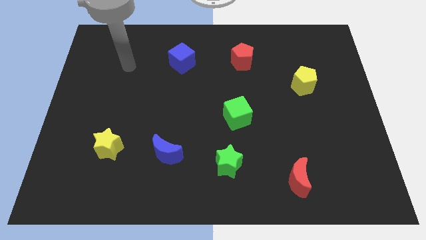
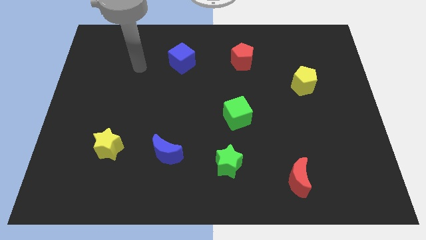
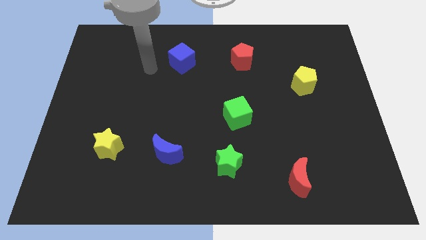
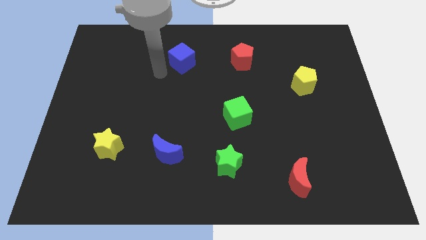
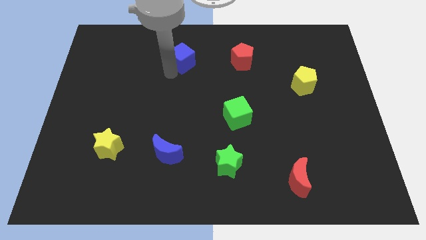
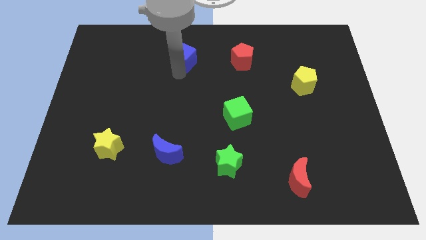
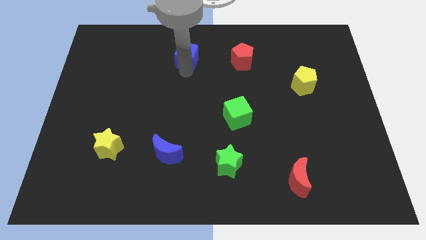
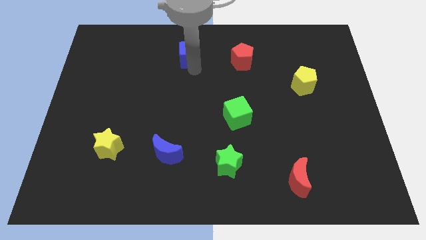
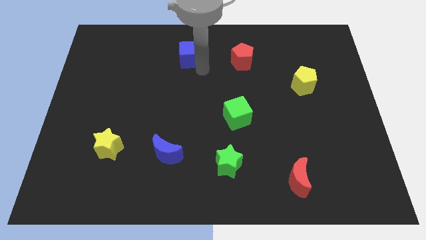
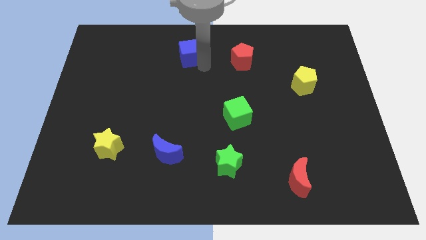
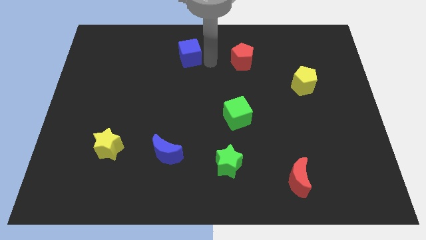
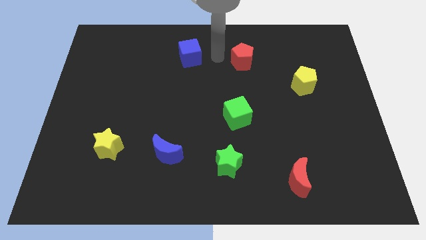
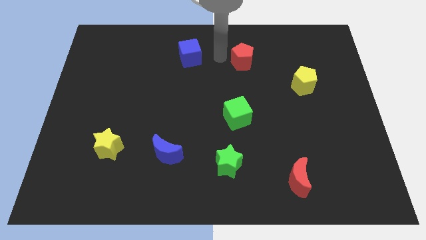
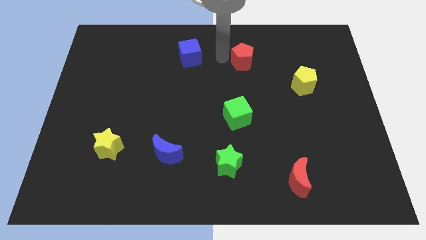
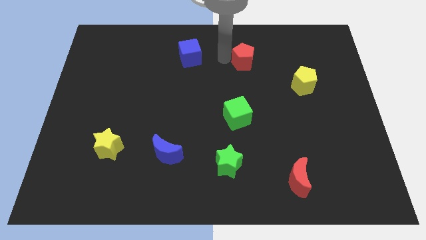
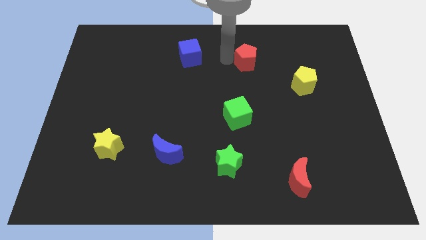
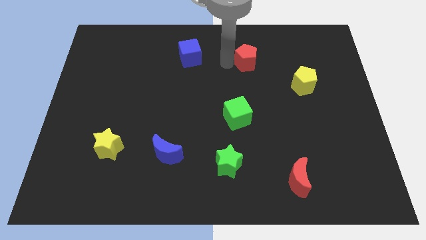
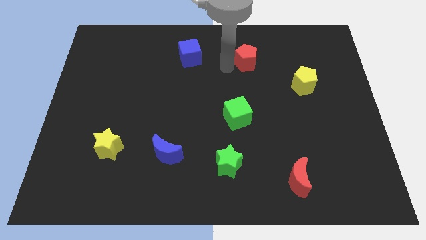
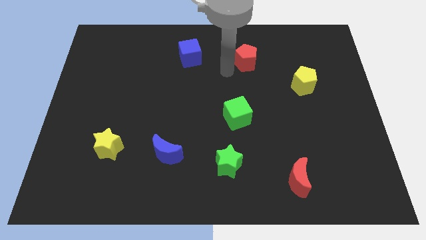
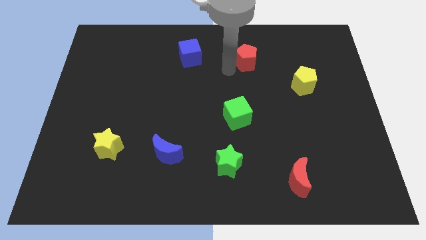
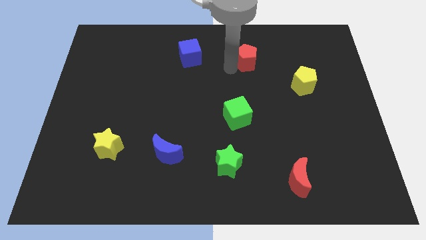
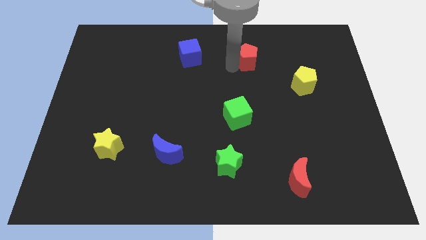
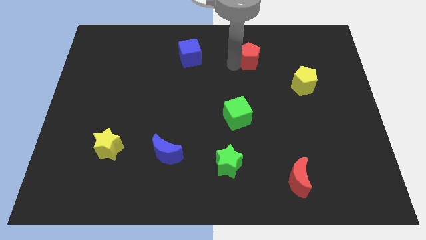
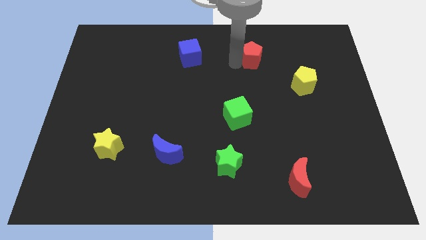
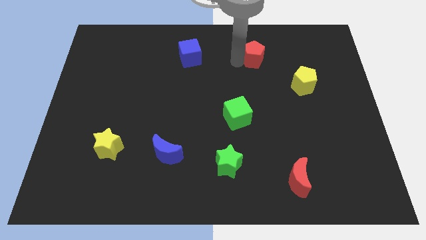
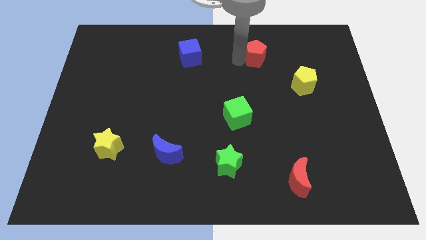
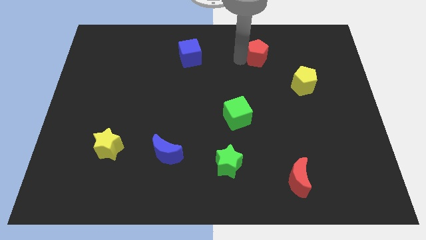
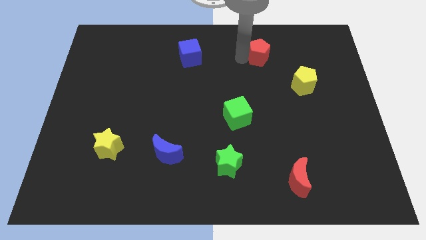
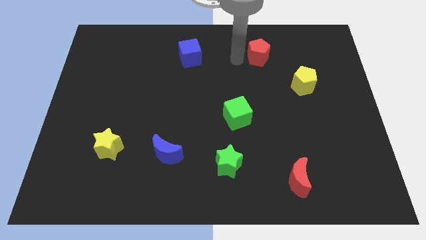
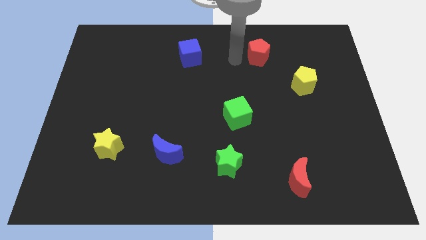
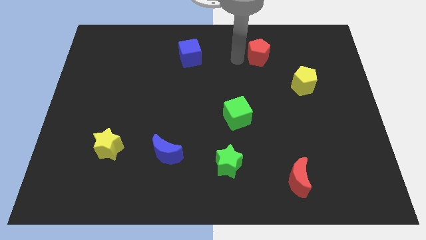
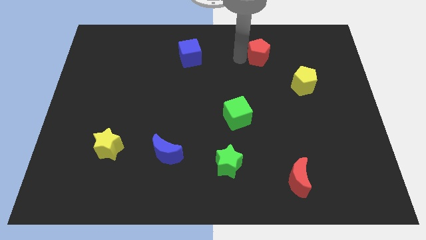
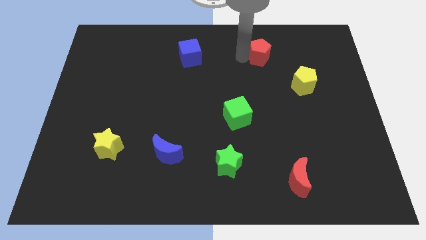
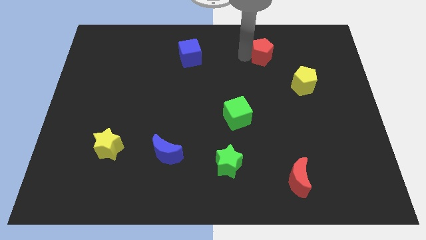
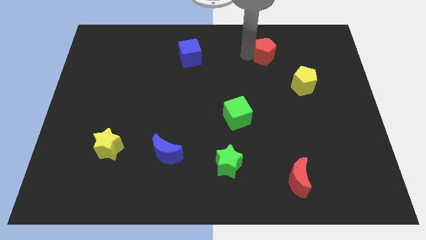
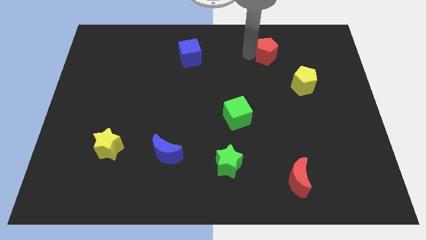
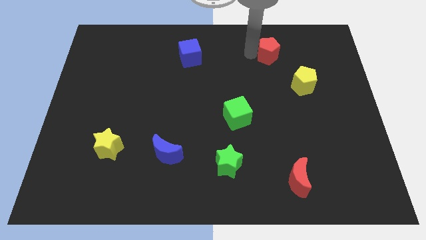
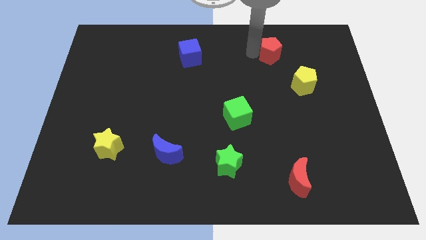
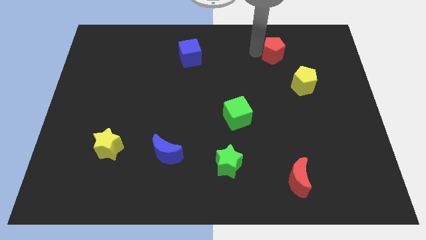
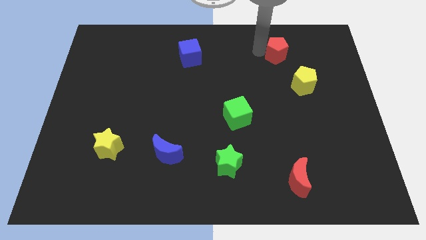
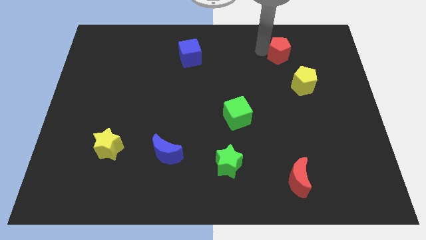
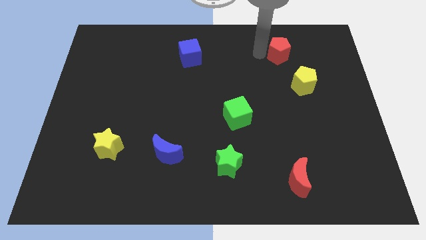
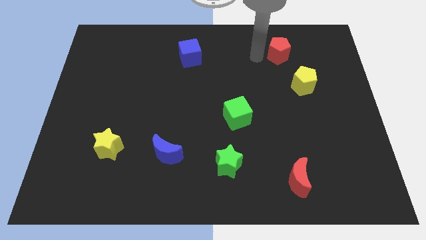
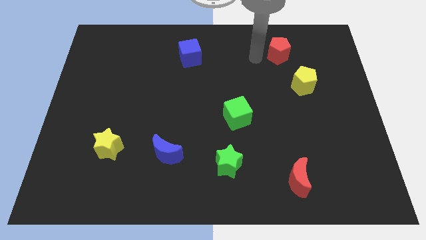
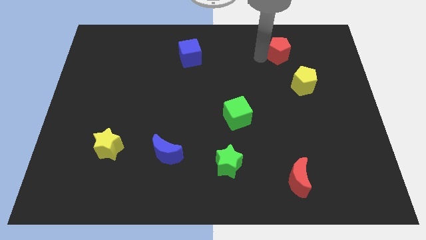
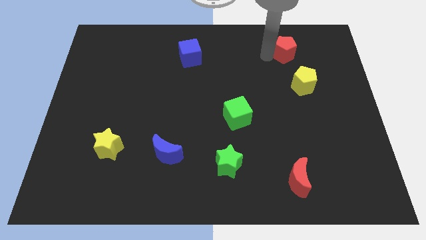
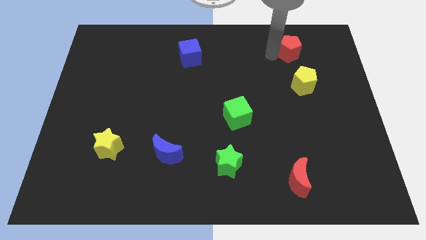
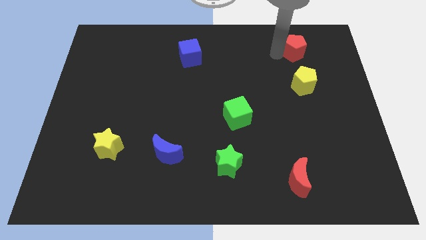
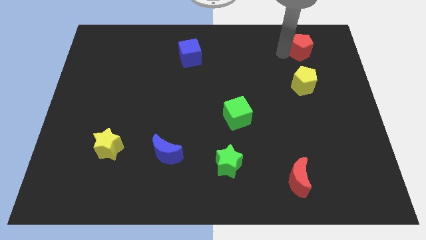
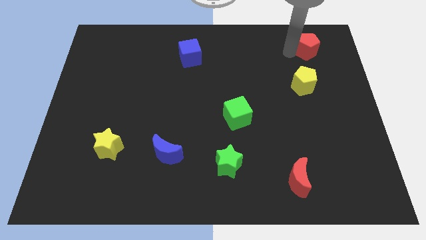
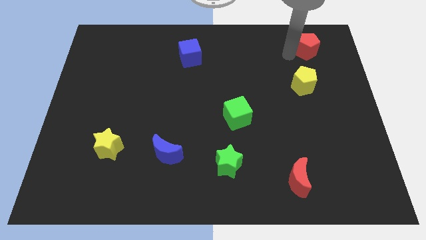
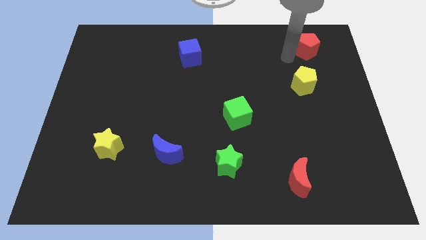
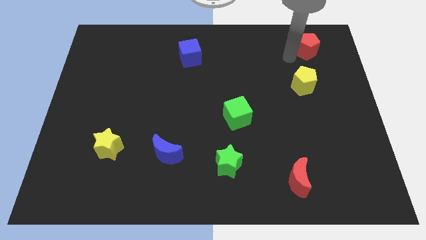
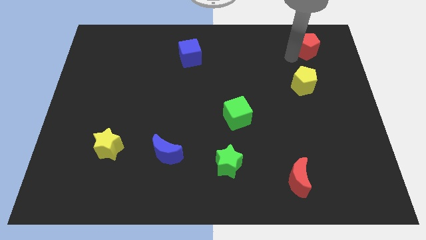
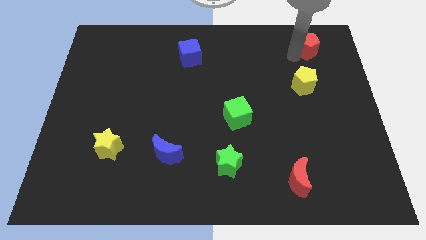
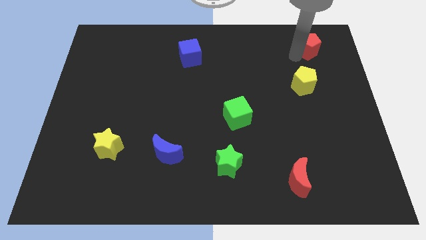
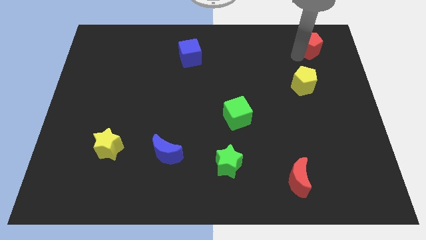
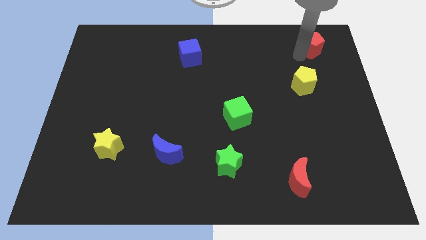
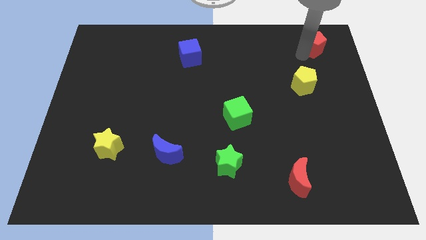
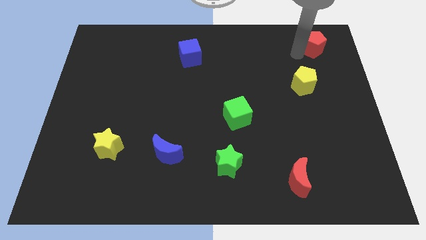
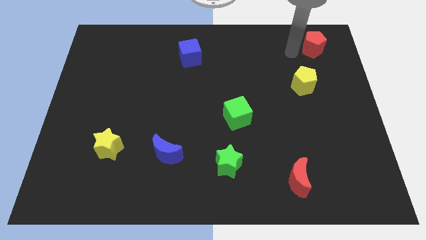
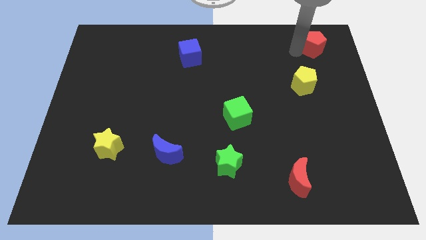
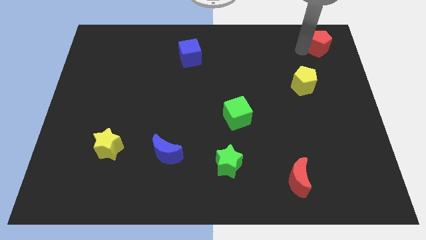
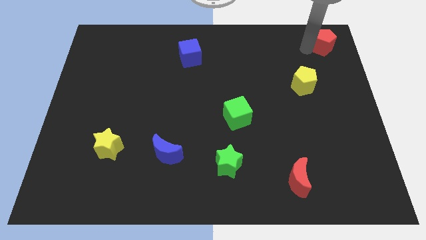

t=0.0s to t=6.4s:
put the red pentagon to the upper right corner
